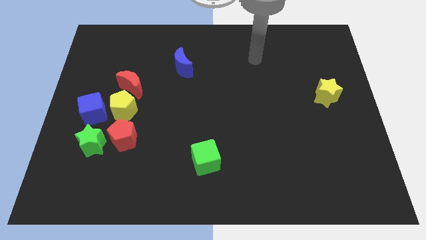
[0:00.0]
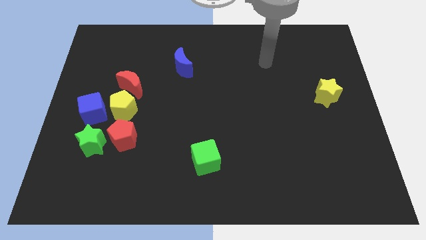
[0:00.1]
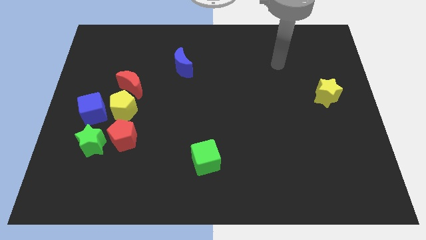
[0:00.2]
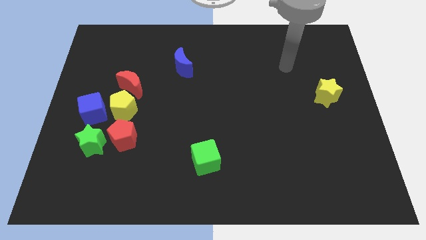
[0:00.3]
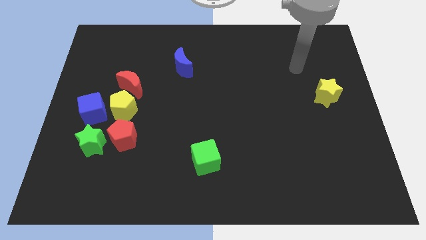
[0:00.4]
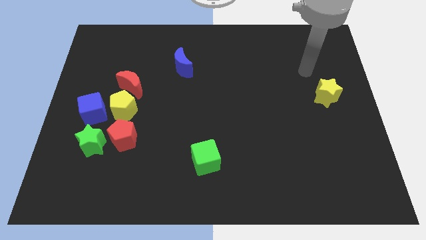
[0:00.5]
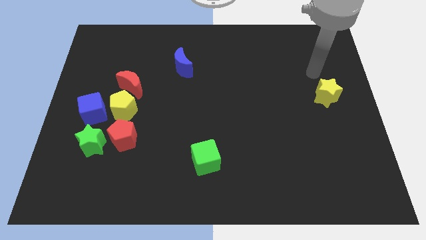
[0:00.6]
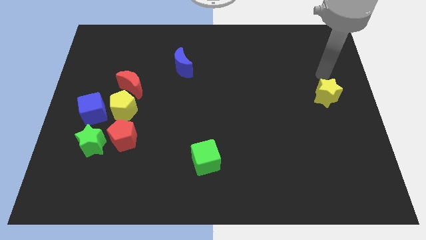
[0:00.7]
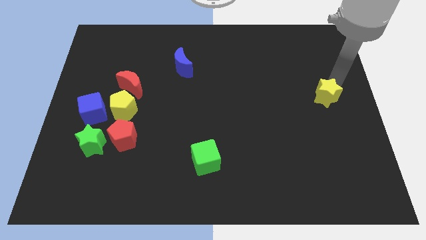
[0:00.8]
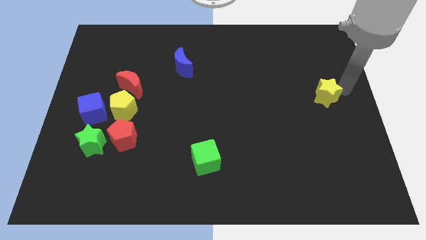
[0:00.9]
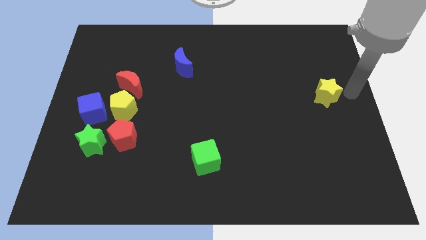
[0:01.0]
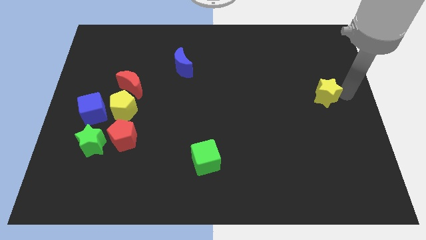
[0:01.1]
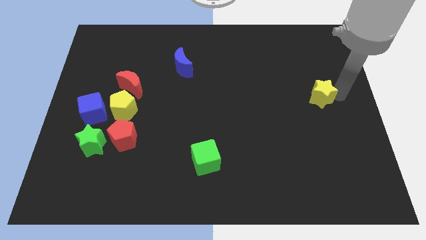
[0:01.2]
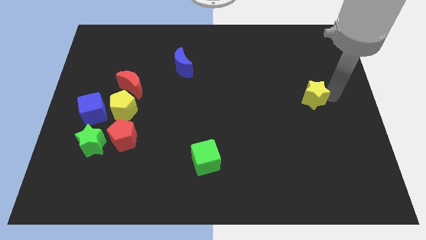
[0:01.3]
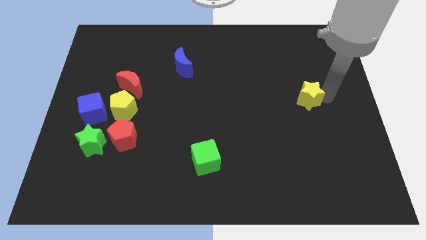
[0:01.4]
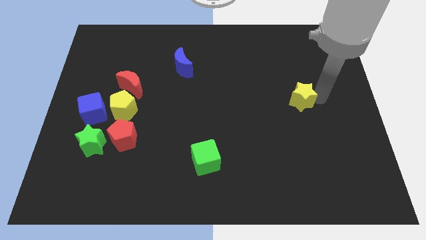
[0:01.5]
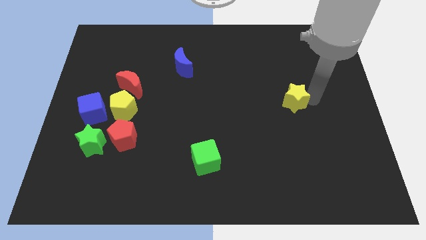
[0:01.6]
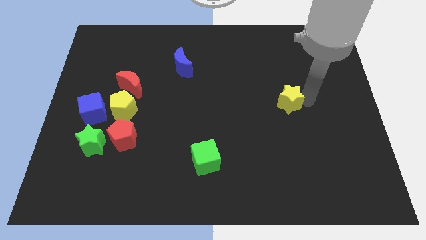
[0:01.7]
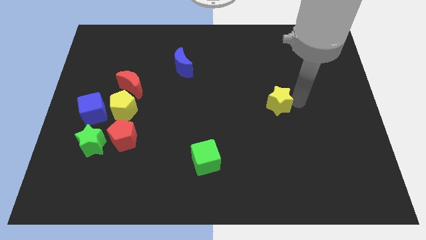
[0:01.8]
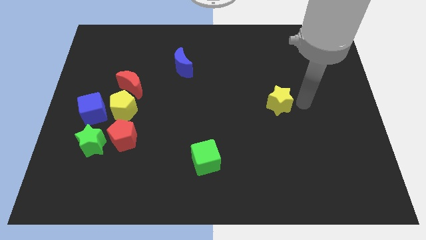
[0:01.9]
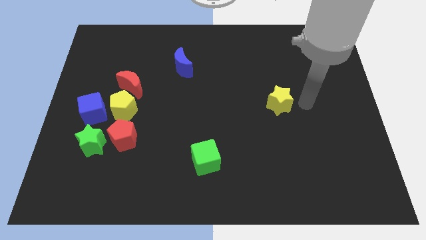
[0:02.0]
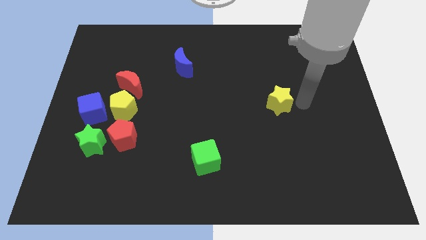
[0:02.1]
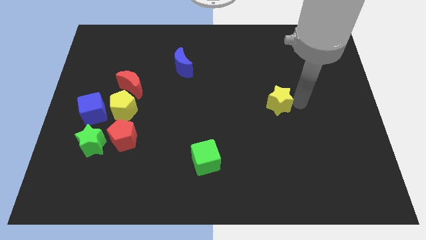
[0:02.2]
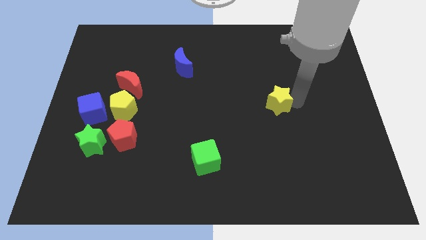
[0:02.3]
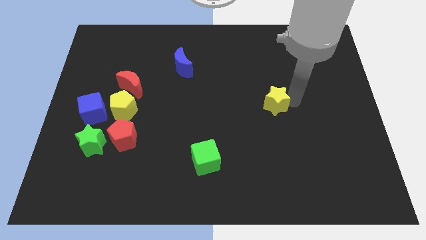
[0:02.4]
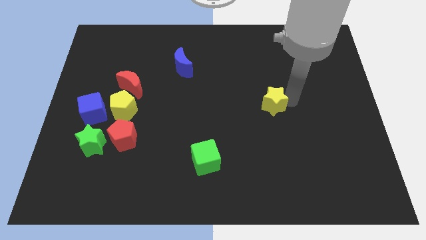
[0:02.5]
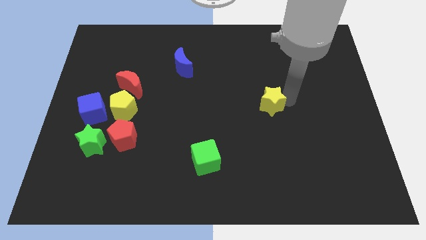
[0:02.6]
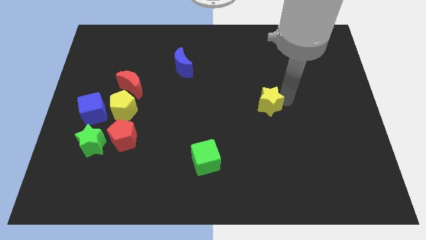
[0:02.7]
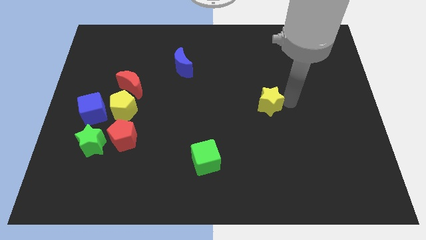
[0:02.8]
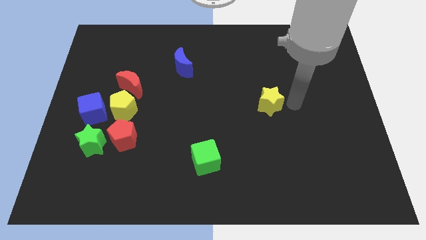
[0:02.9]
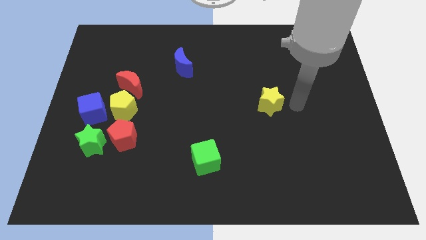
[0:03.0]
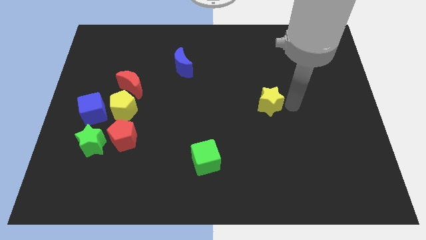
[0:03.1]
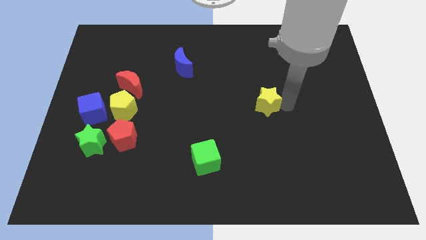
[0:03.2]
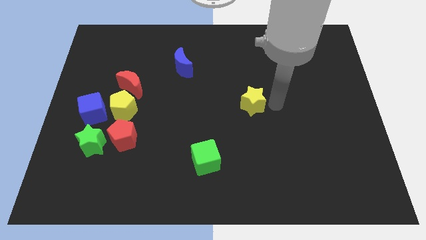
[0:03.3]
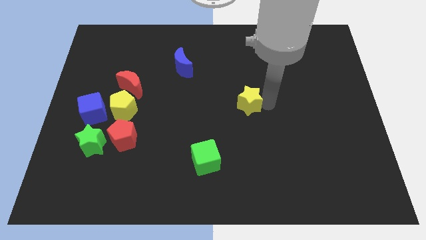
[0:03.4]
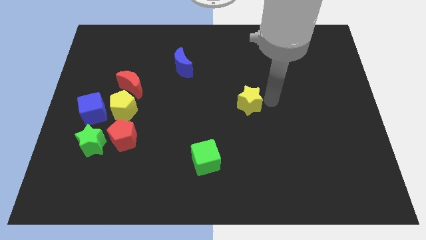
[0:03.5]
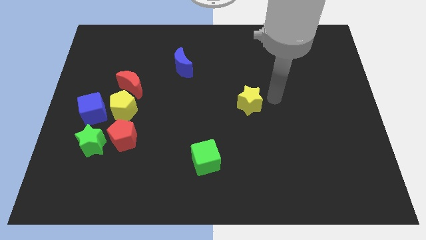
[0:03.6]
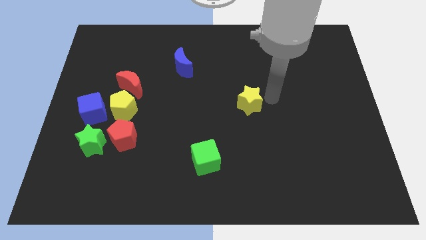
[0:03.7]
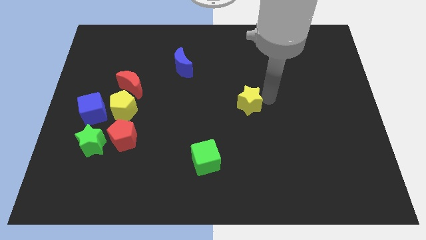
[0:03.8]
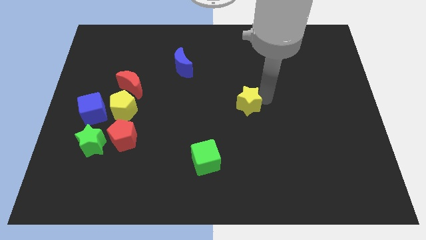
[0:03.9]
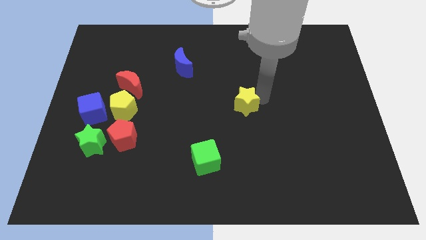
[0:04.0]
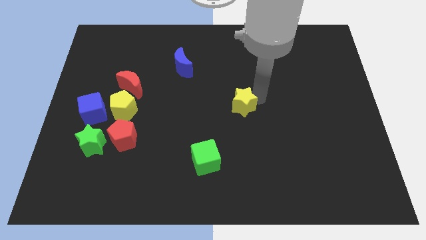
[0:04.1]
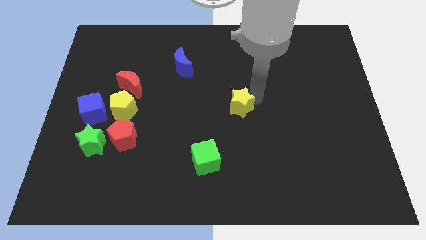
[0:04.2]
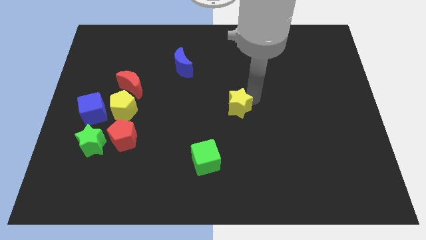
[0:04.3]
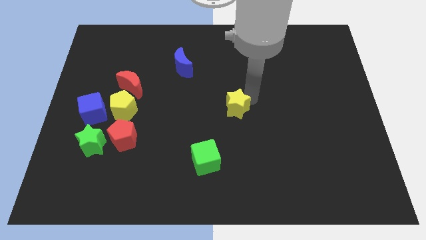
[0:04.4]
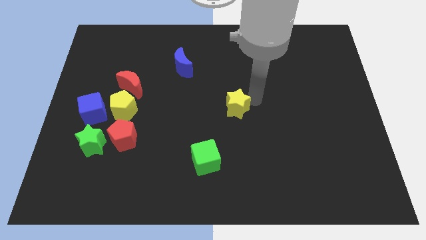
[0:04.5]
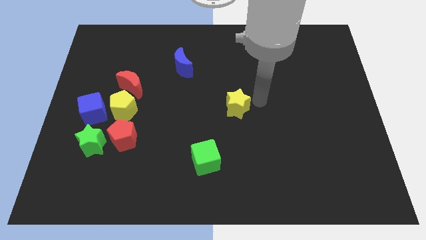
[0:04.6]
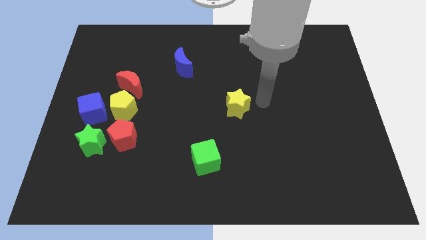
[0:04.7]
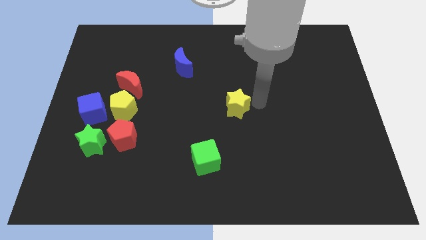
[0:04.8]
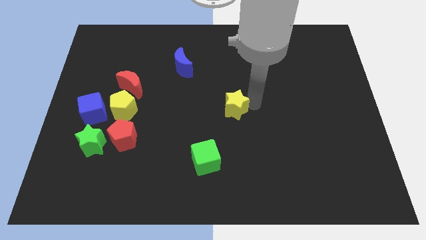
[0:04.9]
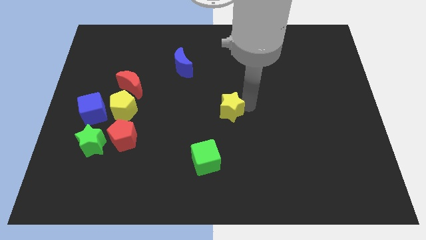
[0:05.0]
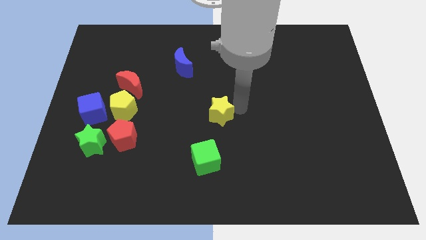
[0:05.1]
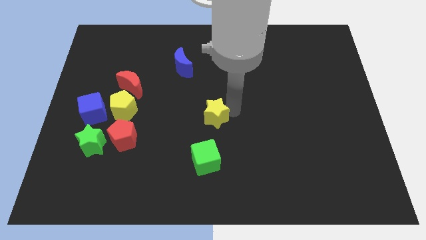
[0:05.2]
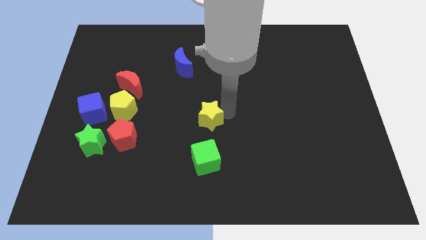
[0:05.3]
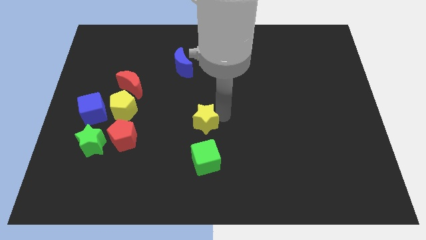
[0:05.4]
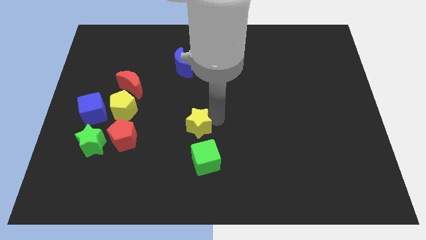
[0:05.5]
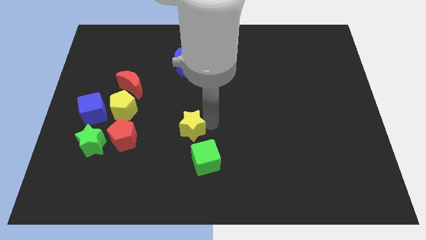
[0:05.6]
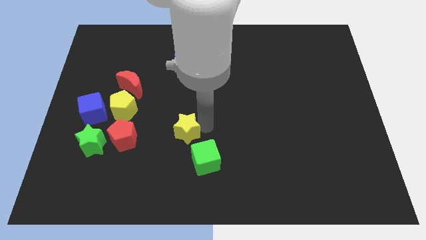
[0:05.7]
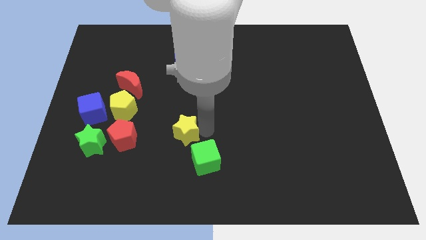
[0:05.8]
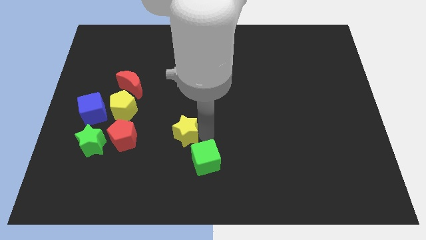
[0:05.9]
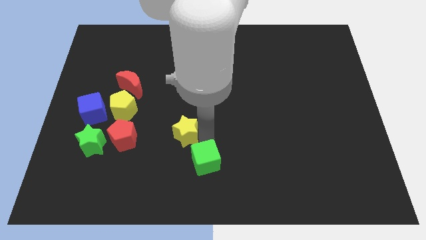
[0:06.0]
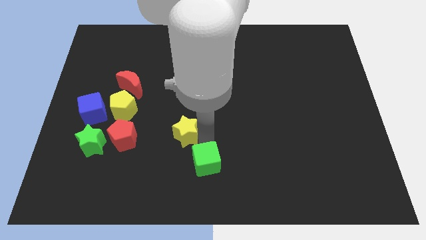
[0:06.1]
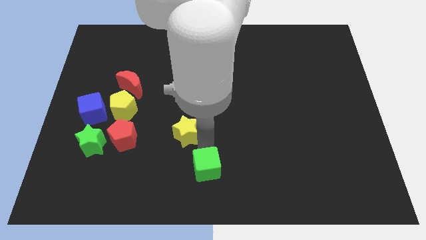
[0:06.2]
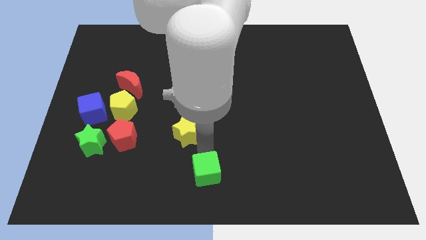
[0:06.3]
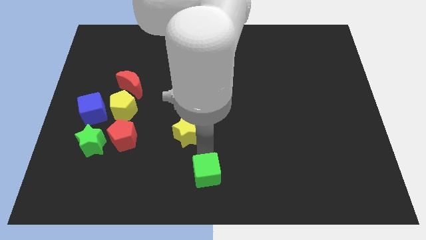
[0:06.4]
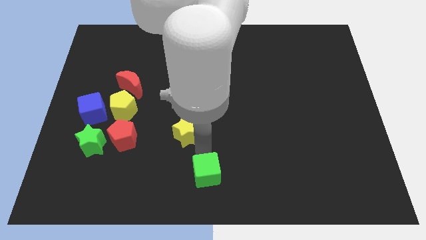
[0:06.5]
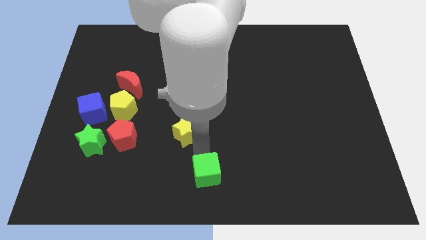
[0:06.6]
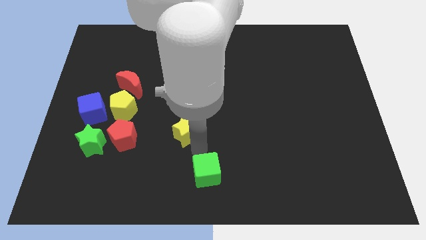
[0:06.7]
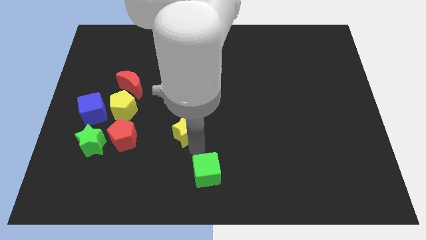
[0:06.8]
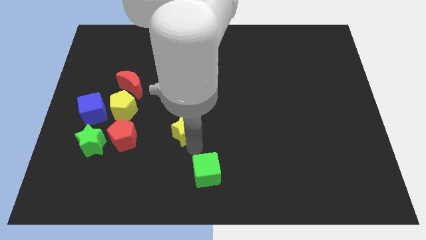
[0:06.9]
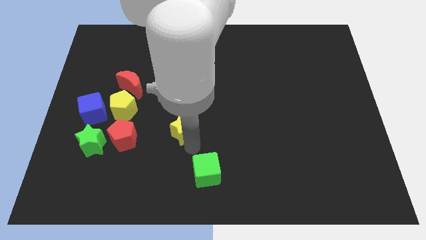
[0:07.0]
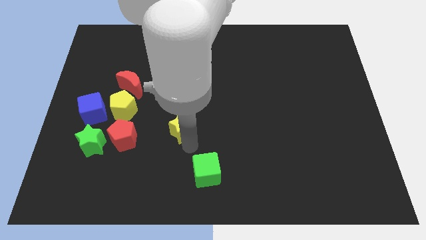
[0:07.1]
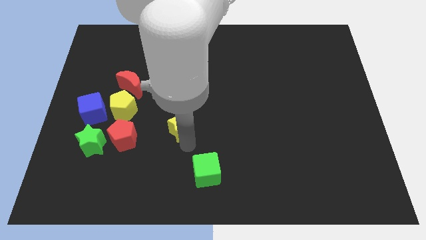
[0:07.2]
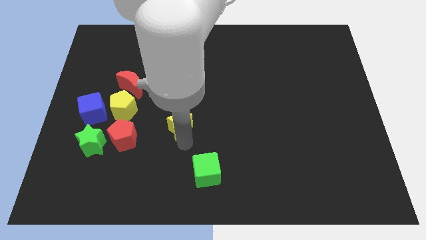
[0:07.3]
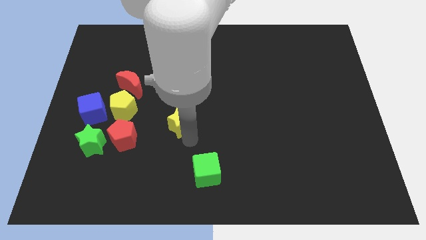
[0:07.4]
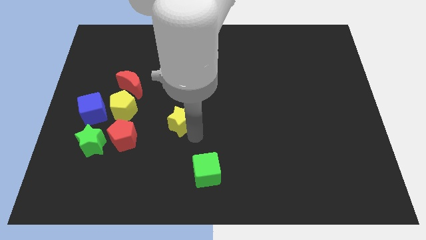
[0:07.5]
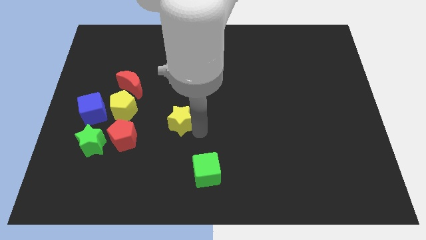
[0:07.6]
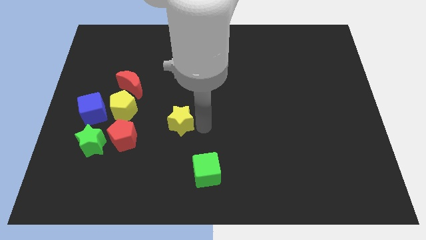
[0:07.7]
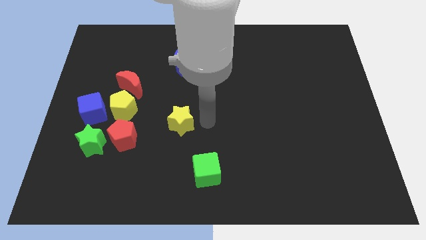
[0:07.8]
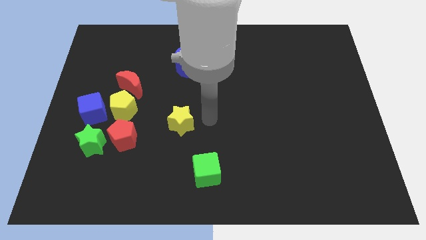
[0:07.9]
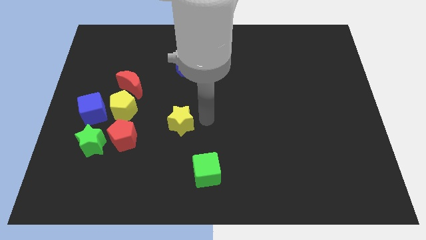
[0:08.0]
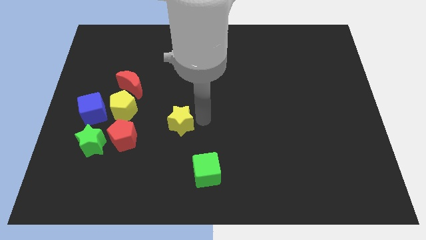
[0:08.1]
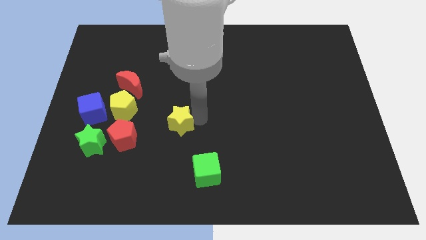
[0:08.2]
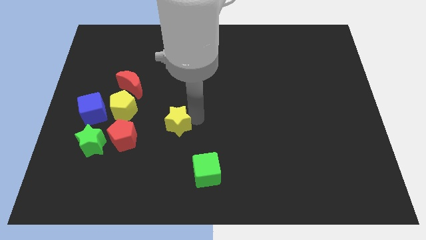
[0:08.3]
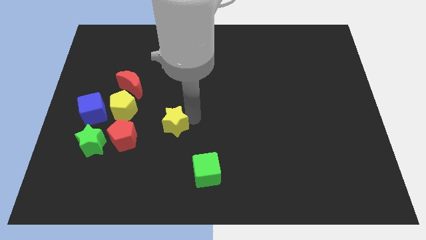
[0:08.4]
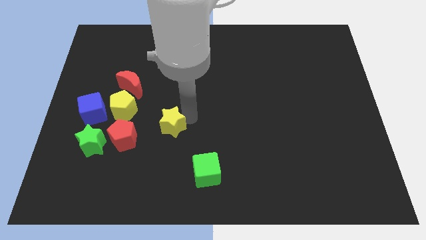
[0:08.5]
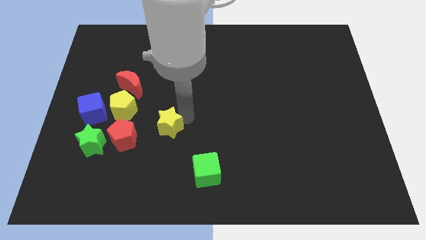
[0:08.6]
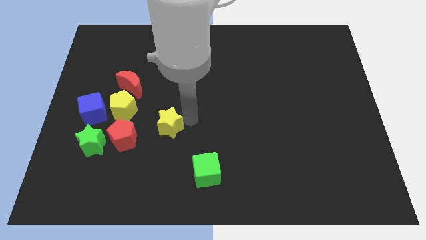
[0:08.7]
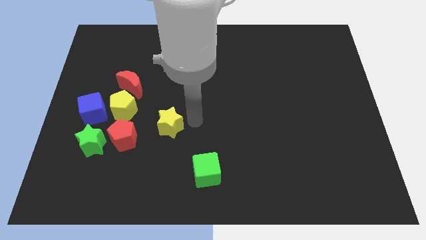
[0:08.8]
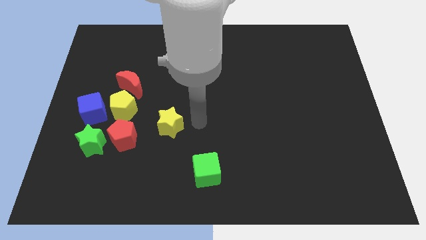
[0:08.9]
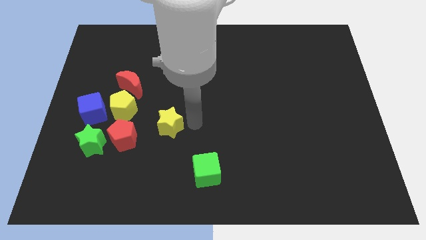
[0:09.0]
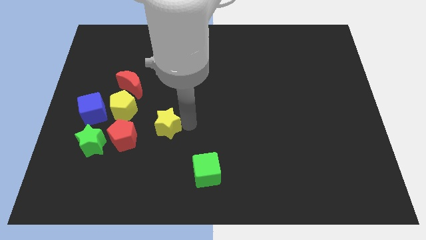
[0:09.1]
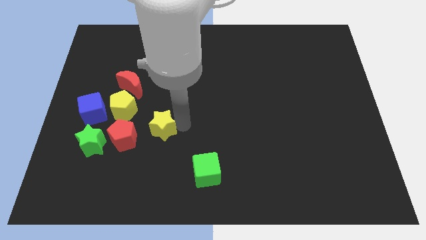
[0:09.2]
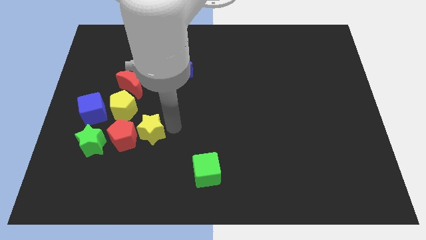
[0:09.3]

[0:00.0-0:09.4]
put the yellow star next to the red pentagon
